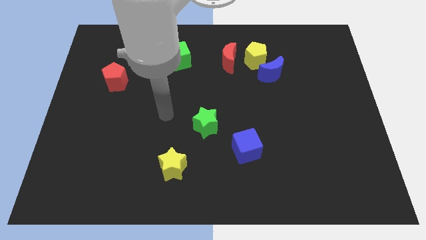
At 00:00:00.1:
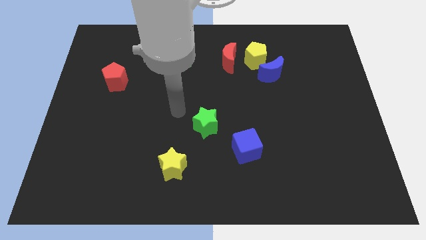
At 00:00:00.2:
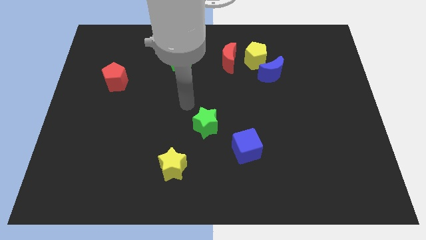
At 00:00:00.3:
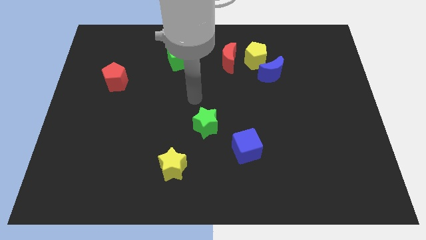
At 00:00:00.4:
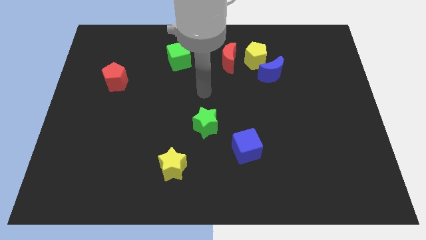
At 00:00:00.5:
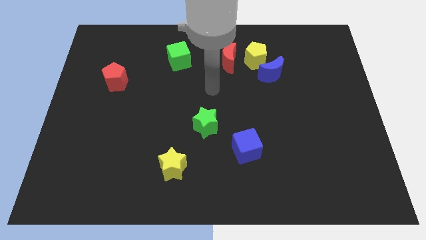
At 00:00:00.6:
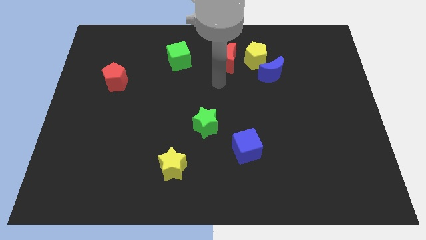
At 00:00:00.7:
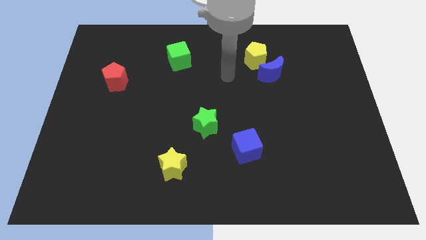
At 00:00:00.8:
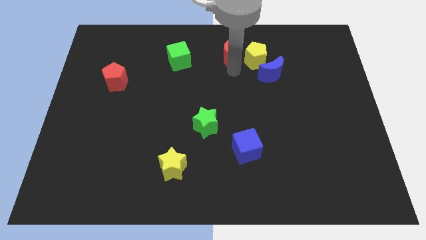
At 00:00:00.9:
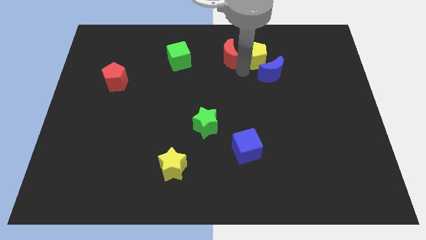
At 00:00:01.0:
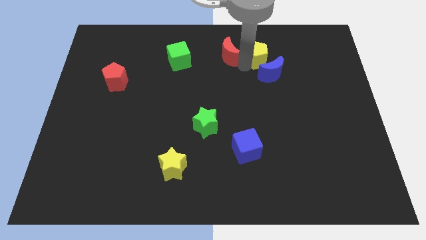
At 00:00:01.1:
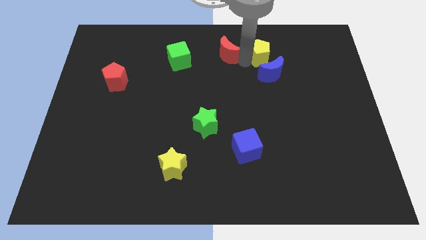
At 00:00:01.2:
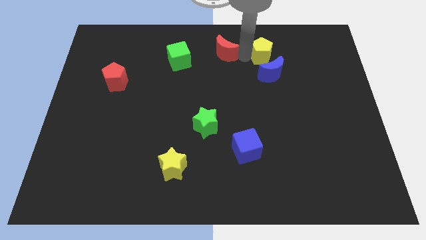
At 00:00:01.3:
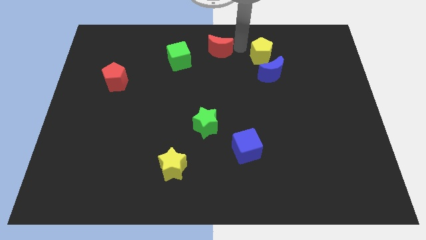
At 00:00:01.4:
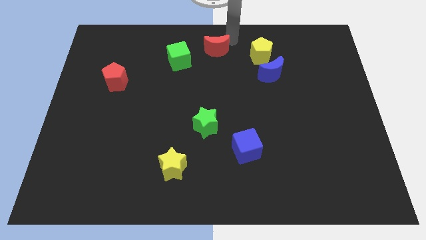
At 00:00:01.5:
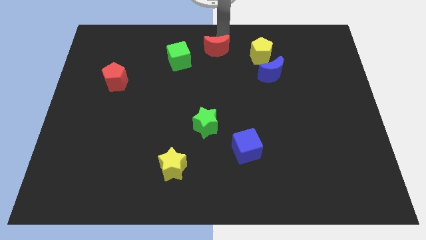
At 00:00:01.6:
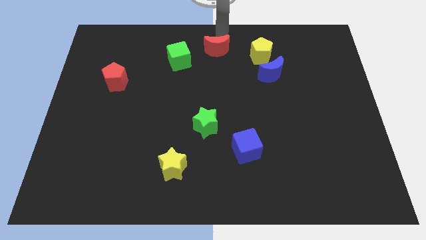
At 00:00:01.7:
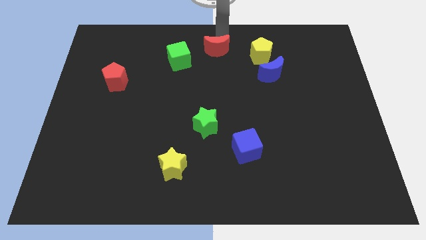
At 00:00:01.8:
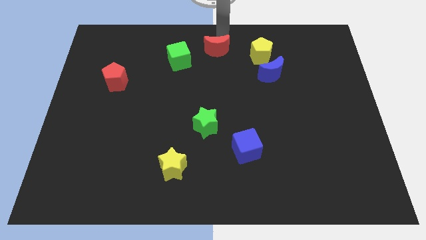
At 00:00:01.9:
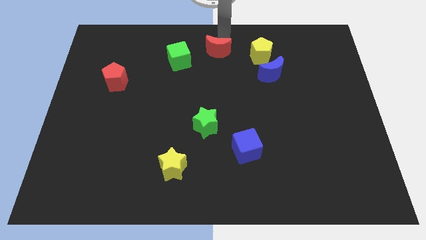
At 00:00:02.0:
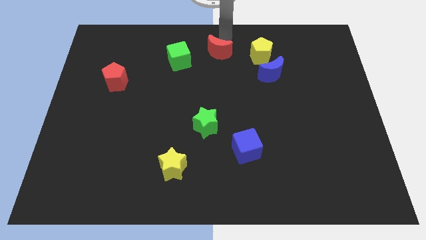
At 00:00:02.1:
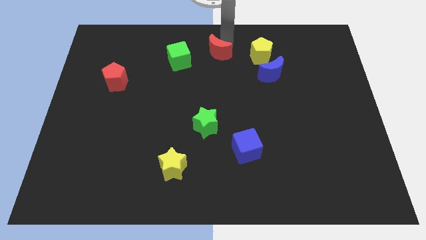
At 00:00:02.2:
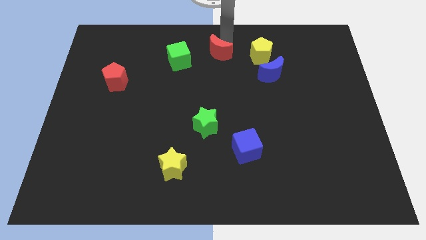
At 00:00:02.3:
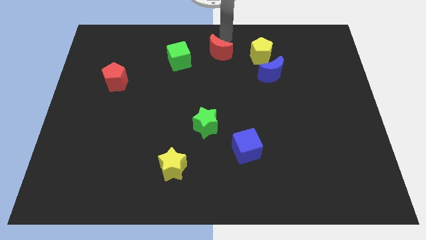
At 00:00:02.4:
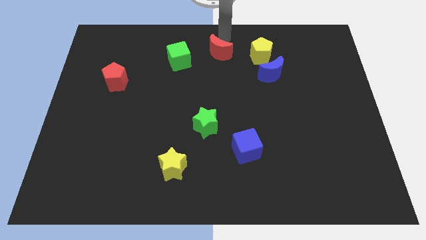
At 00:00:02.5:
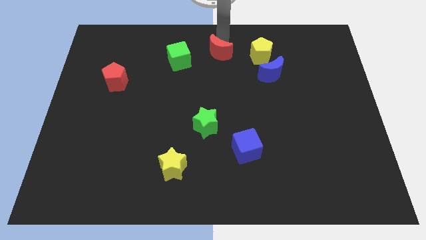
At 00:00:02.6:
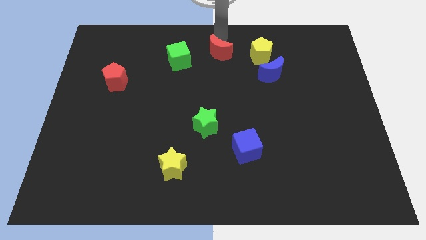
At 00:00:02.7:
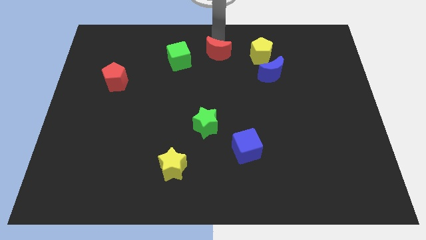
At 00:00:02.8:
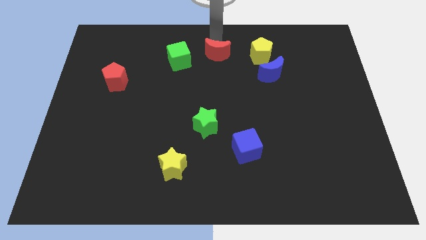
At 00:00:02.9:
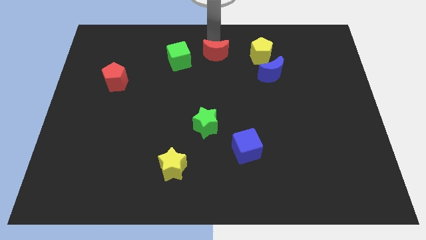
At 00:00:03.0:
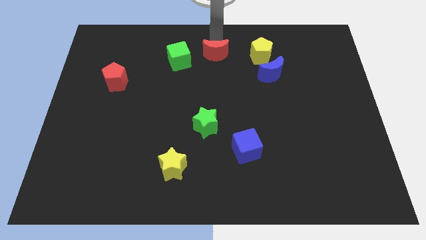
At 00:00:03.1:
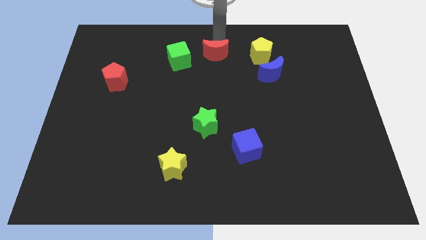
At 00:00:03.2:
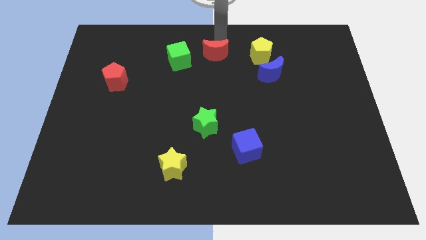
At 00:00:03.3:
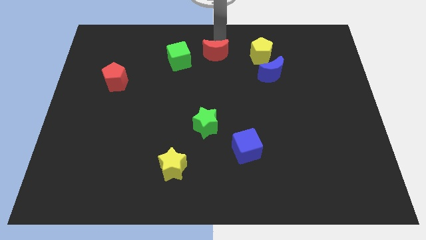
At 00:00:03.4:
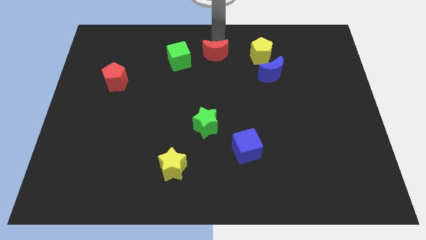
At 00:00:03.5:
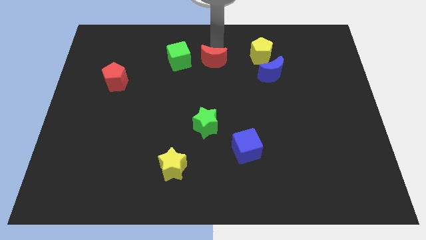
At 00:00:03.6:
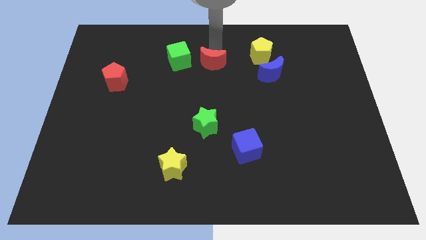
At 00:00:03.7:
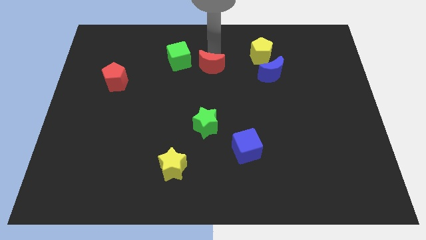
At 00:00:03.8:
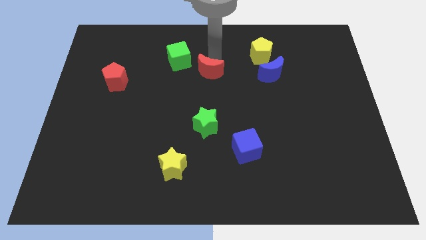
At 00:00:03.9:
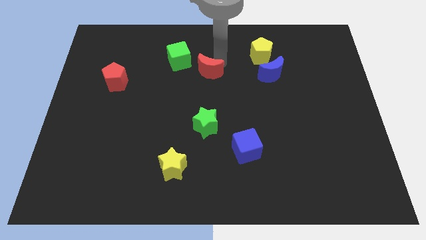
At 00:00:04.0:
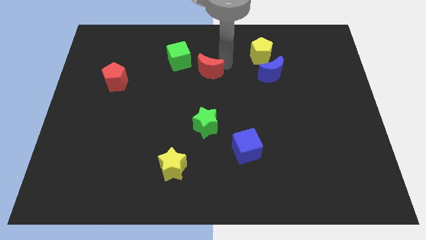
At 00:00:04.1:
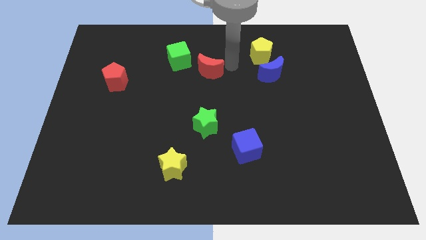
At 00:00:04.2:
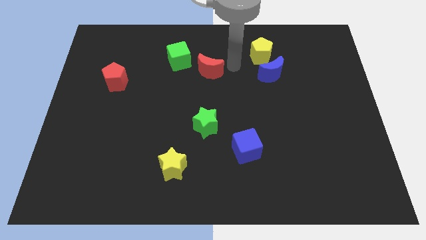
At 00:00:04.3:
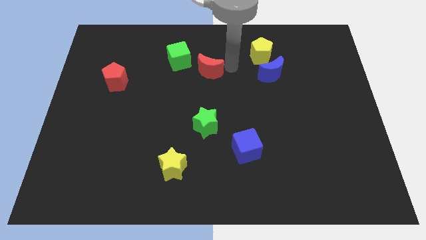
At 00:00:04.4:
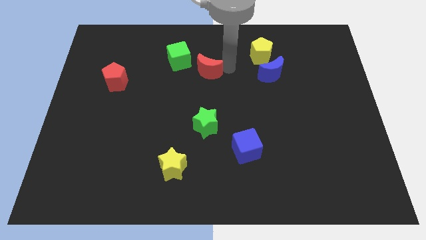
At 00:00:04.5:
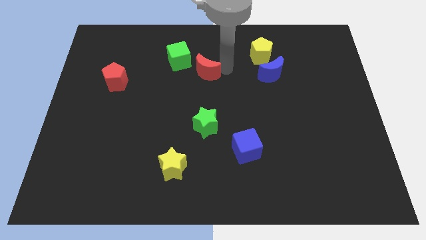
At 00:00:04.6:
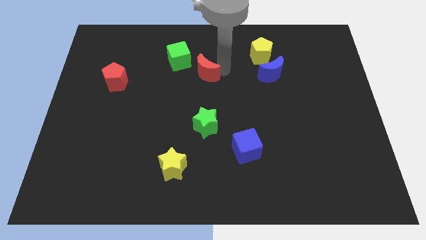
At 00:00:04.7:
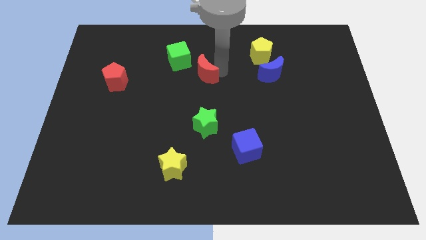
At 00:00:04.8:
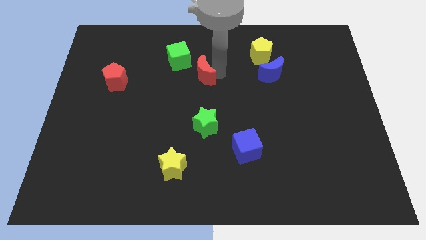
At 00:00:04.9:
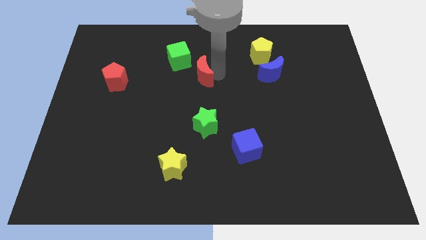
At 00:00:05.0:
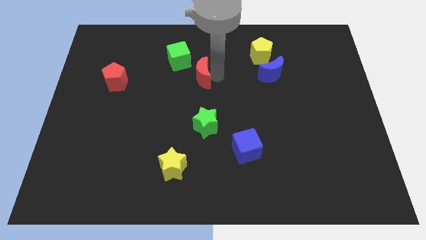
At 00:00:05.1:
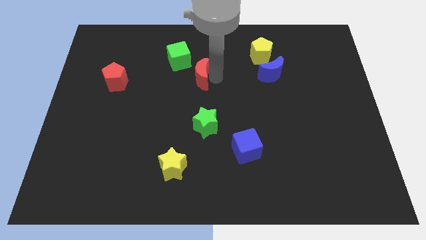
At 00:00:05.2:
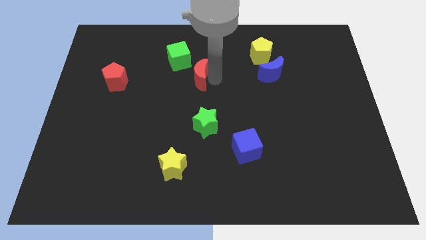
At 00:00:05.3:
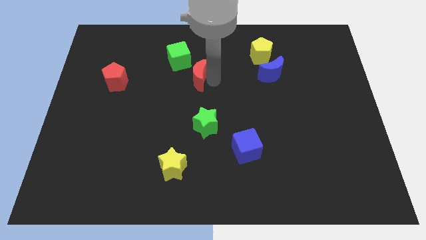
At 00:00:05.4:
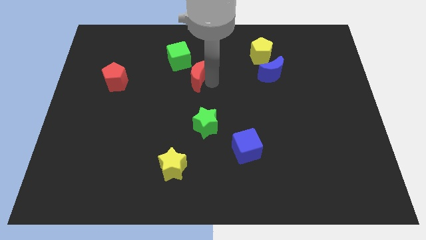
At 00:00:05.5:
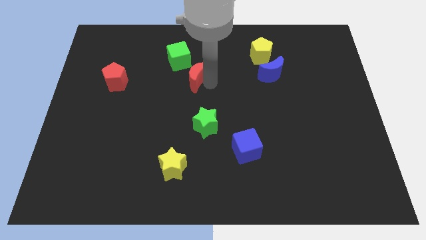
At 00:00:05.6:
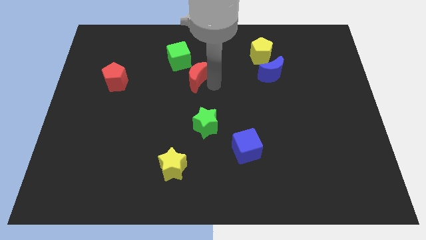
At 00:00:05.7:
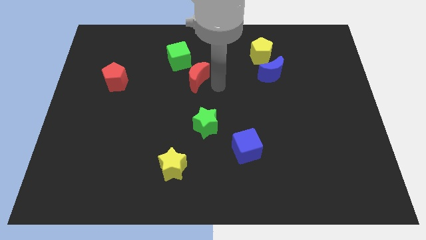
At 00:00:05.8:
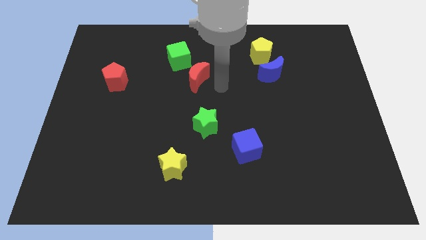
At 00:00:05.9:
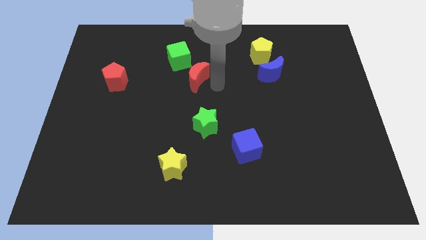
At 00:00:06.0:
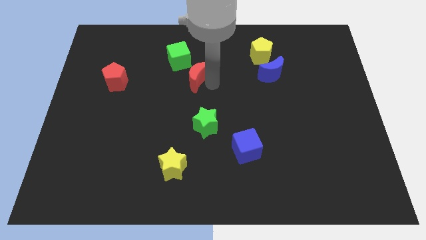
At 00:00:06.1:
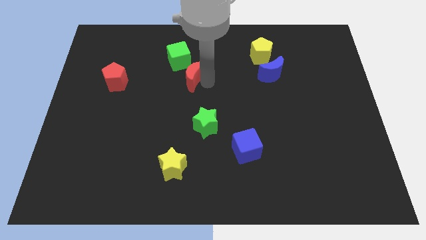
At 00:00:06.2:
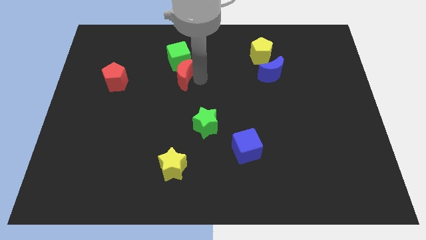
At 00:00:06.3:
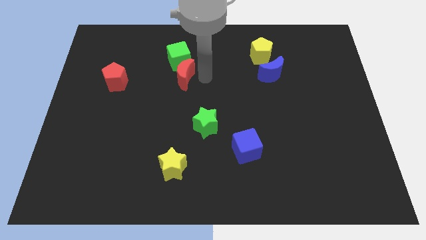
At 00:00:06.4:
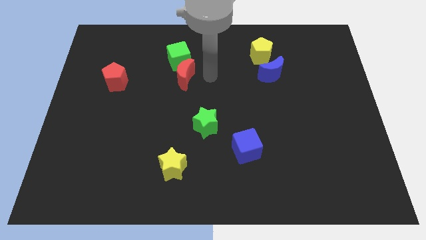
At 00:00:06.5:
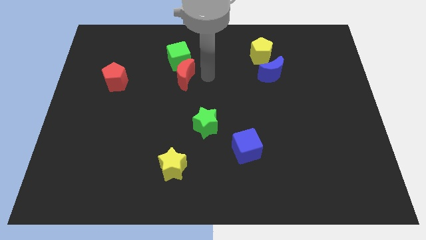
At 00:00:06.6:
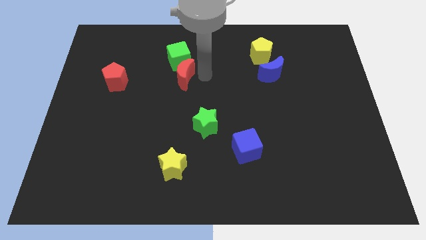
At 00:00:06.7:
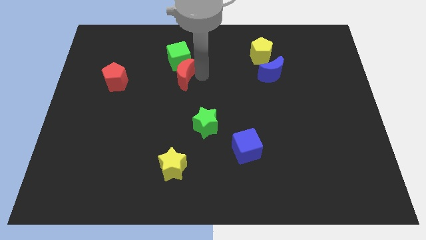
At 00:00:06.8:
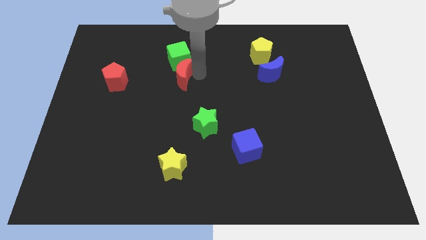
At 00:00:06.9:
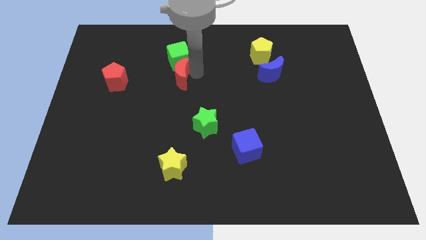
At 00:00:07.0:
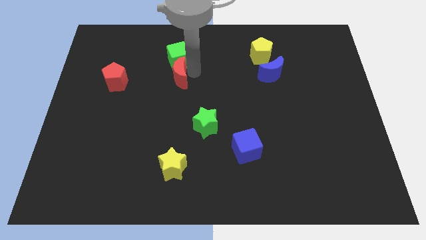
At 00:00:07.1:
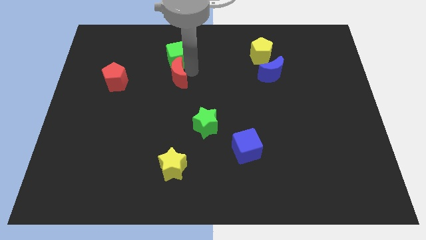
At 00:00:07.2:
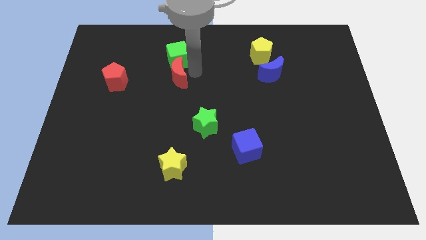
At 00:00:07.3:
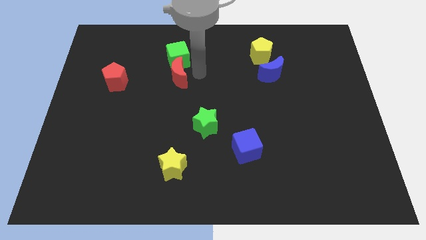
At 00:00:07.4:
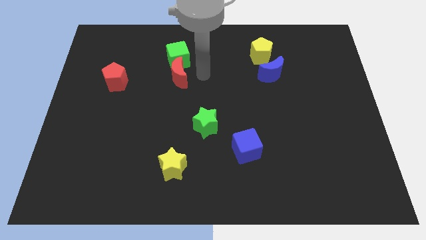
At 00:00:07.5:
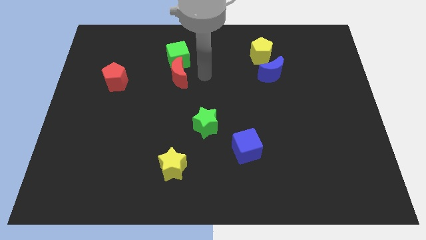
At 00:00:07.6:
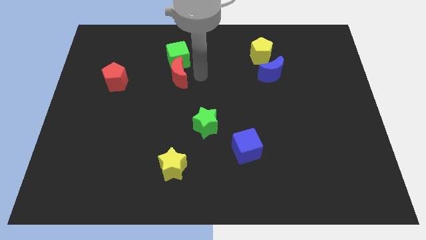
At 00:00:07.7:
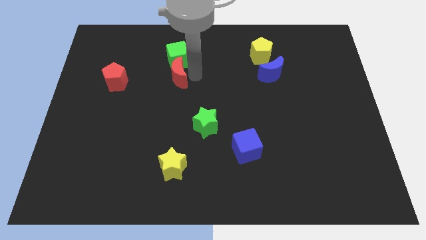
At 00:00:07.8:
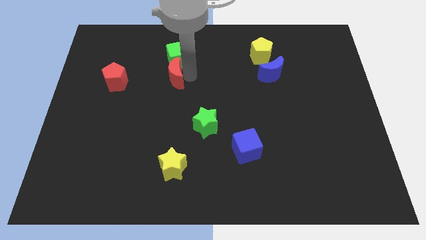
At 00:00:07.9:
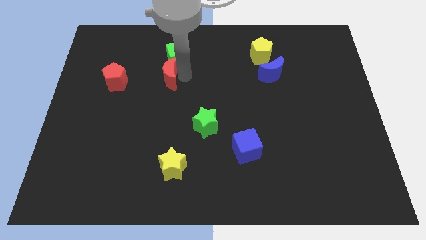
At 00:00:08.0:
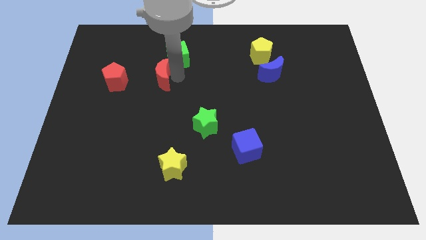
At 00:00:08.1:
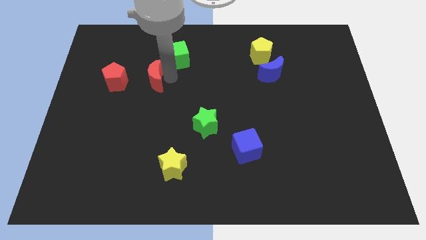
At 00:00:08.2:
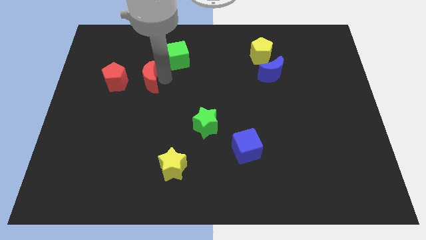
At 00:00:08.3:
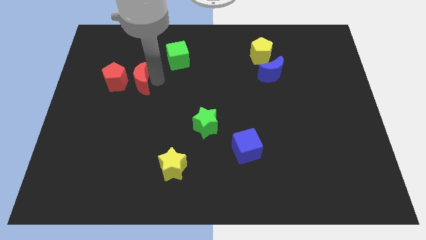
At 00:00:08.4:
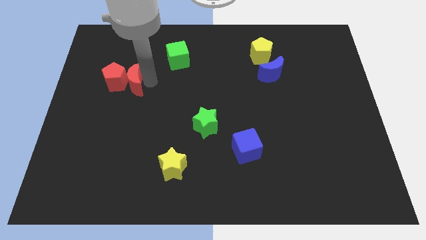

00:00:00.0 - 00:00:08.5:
put the red moon to the red pentagon
